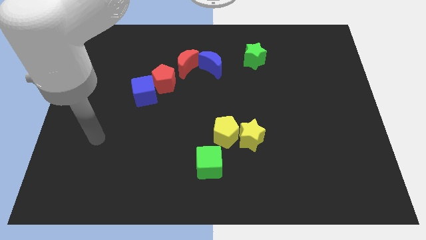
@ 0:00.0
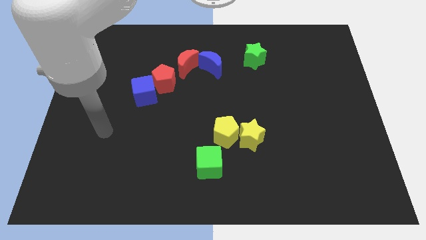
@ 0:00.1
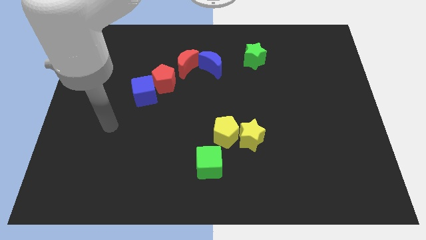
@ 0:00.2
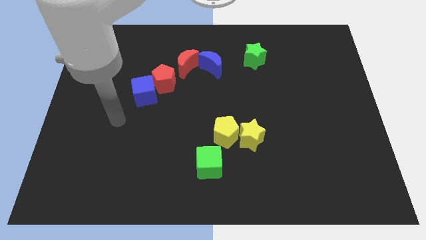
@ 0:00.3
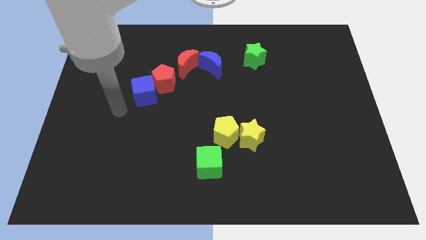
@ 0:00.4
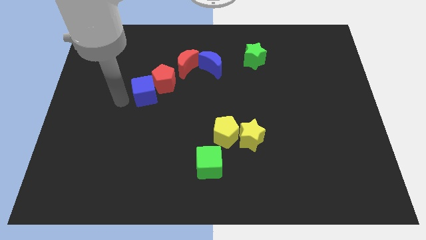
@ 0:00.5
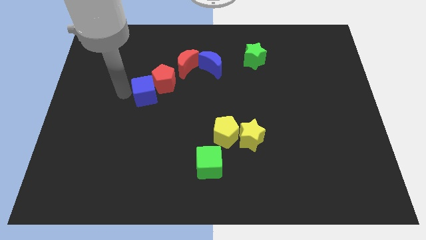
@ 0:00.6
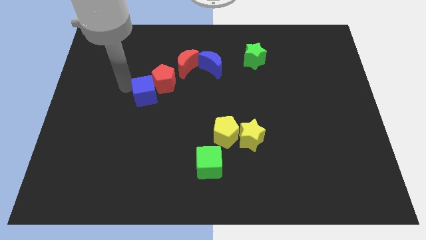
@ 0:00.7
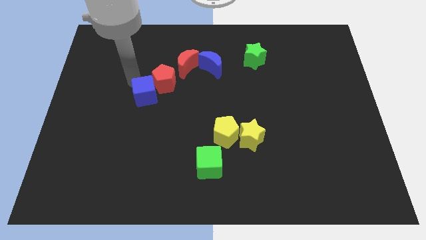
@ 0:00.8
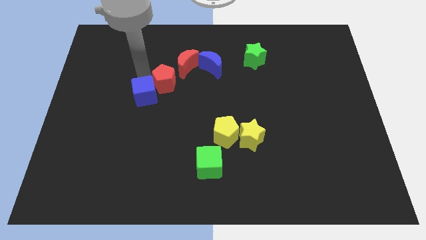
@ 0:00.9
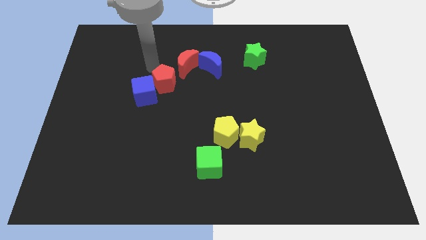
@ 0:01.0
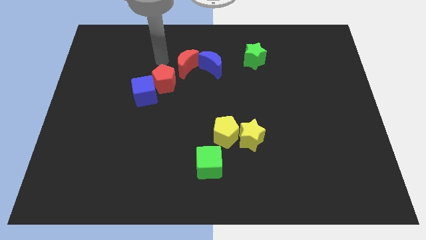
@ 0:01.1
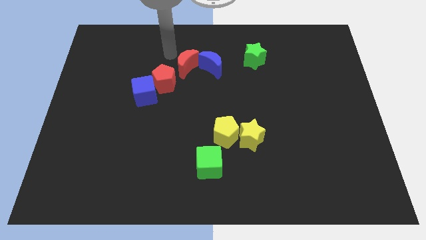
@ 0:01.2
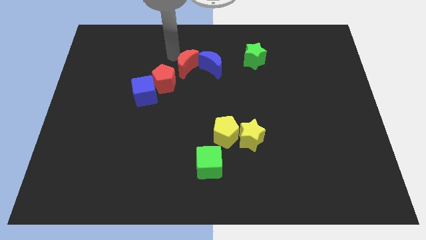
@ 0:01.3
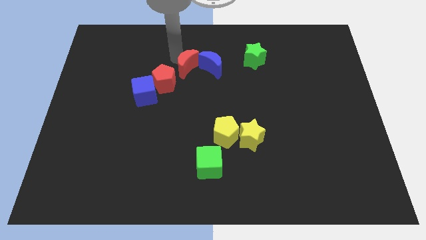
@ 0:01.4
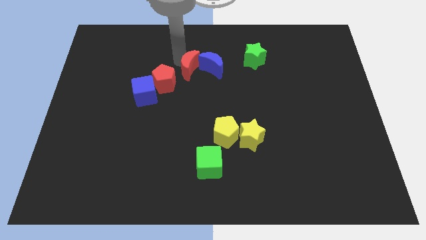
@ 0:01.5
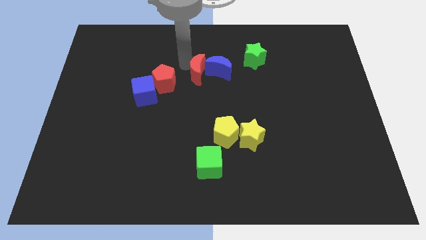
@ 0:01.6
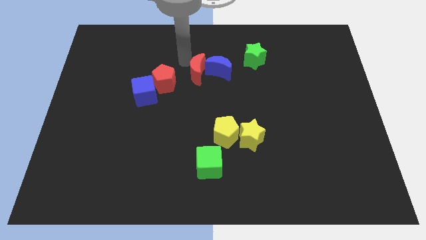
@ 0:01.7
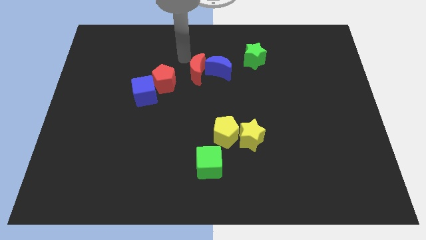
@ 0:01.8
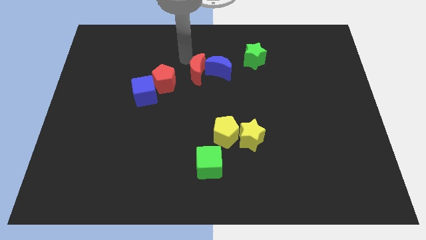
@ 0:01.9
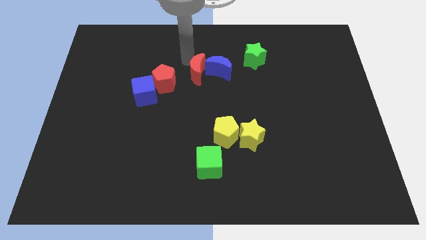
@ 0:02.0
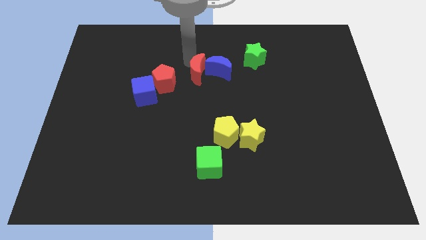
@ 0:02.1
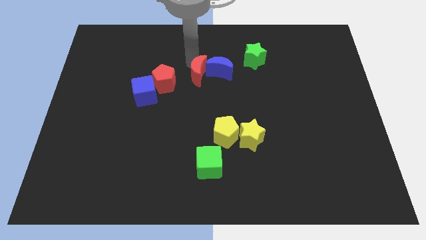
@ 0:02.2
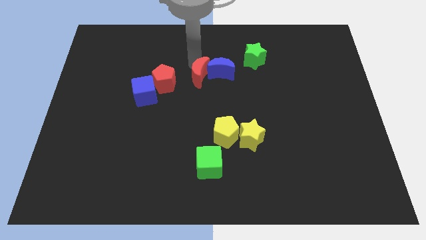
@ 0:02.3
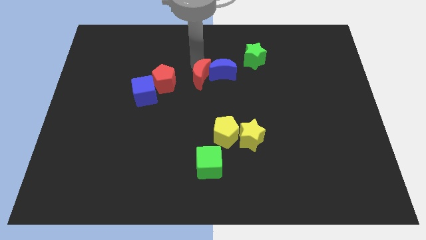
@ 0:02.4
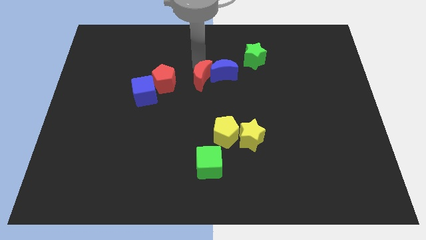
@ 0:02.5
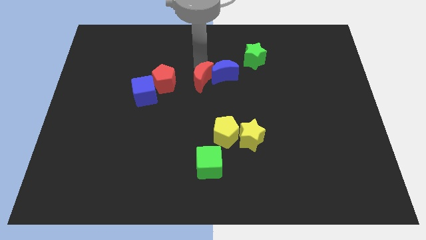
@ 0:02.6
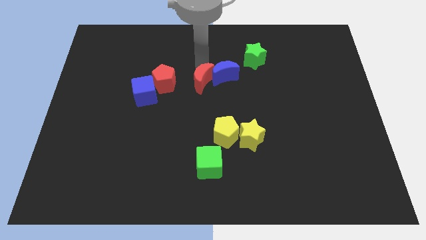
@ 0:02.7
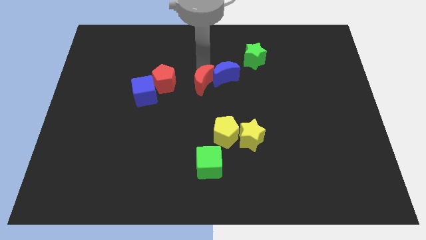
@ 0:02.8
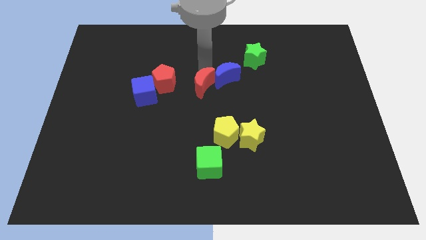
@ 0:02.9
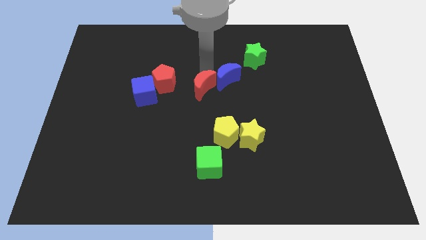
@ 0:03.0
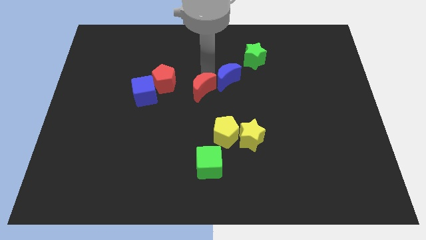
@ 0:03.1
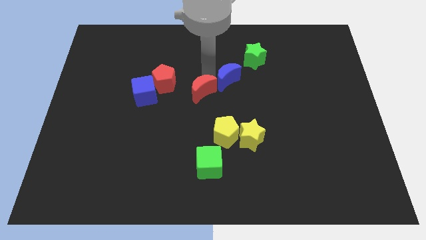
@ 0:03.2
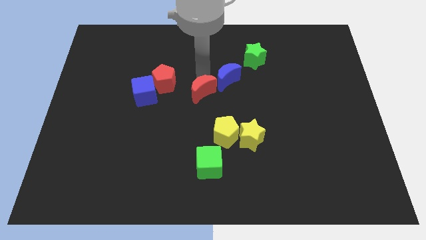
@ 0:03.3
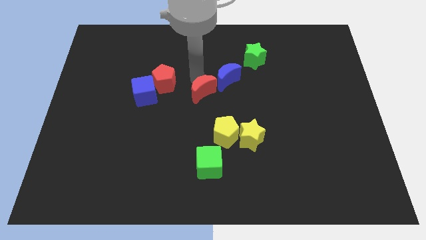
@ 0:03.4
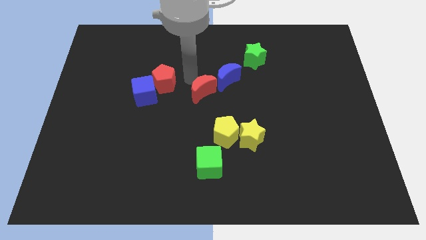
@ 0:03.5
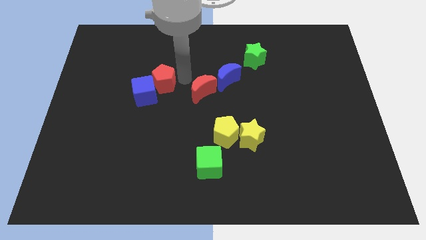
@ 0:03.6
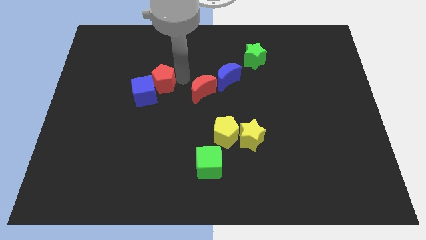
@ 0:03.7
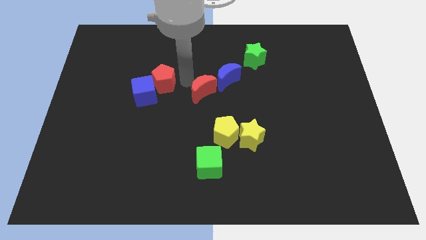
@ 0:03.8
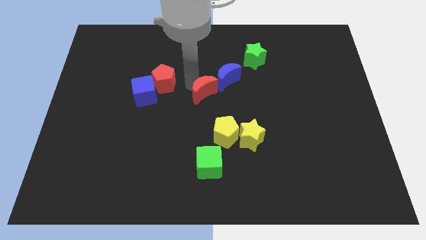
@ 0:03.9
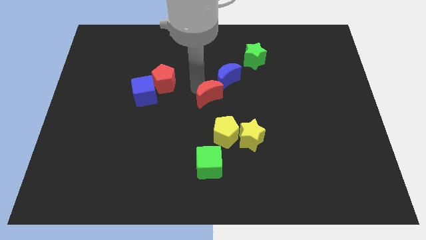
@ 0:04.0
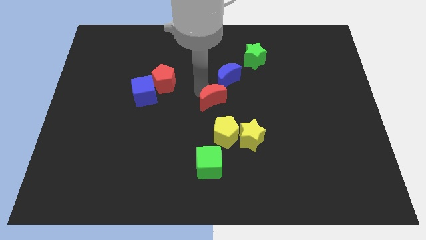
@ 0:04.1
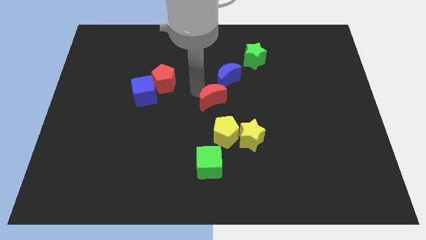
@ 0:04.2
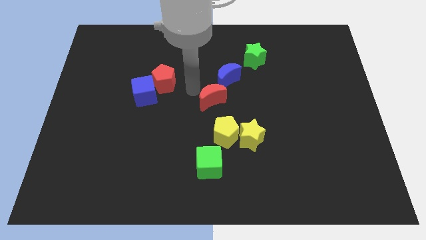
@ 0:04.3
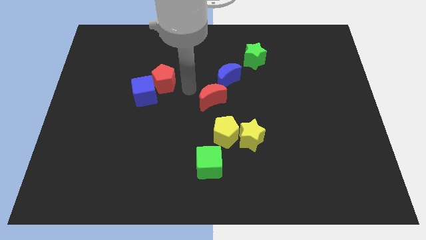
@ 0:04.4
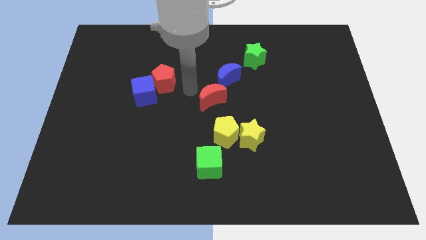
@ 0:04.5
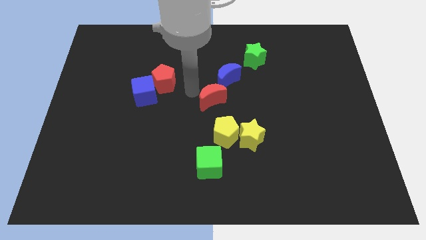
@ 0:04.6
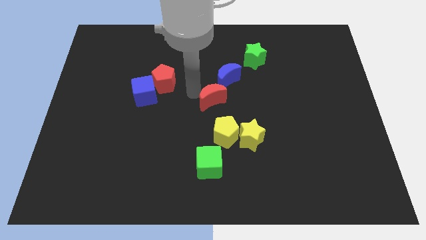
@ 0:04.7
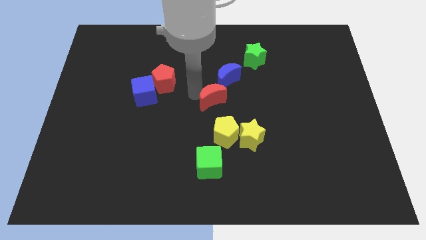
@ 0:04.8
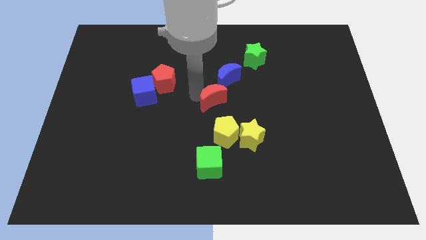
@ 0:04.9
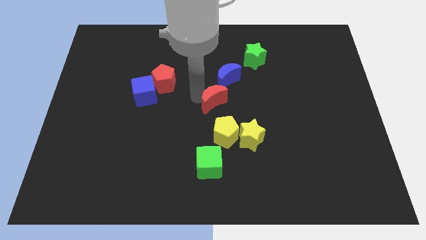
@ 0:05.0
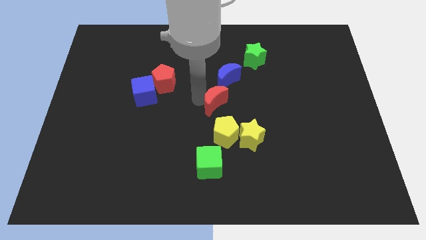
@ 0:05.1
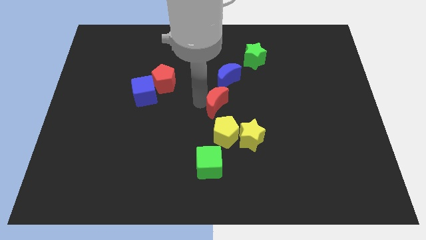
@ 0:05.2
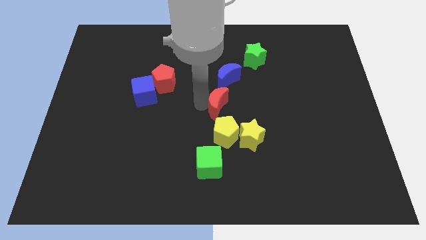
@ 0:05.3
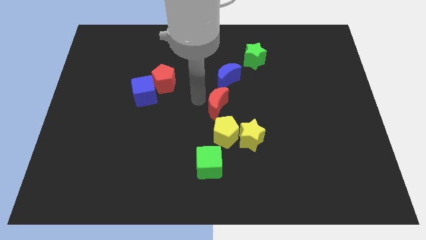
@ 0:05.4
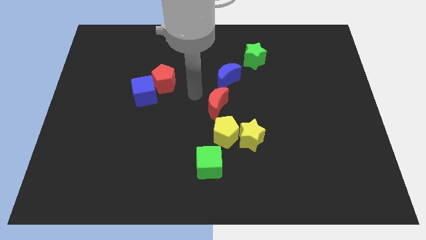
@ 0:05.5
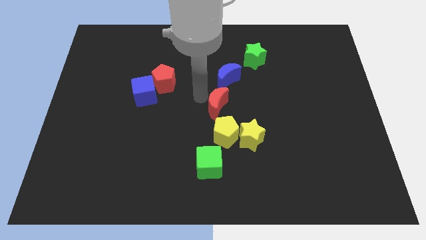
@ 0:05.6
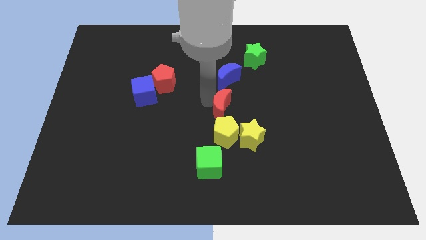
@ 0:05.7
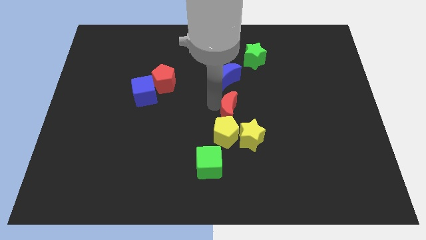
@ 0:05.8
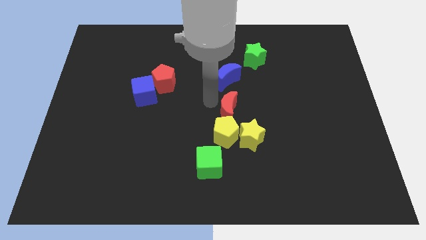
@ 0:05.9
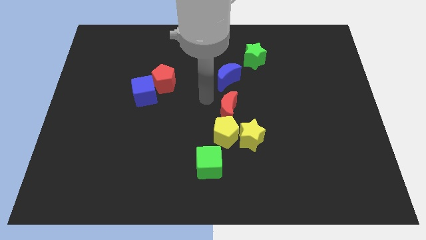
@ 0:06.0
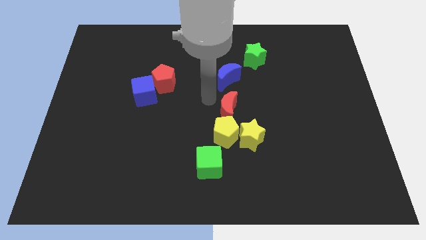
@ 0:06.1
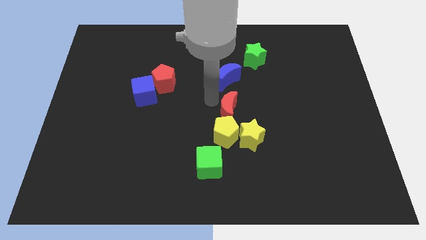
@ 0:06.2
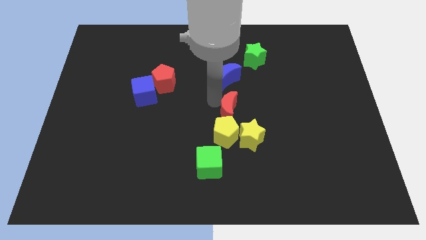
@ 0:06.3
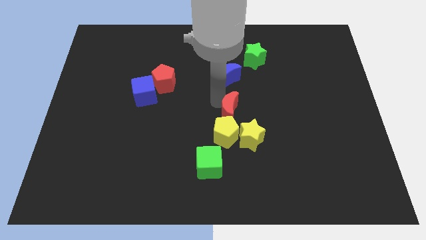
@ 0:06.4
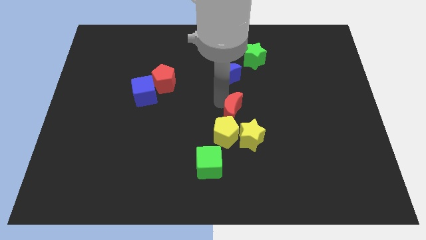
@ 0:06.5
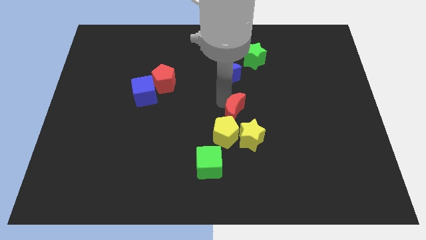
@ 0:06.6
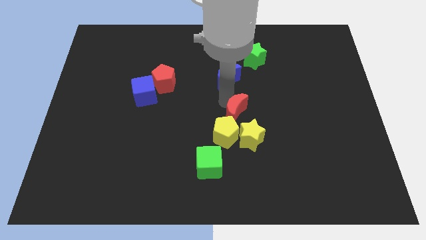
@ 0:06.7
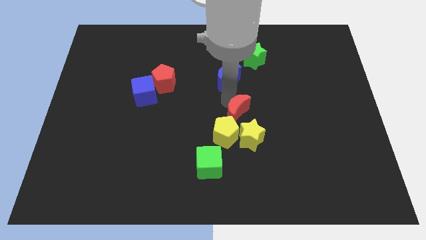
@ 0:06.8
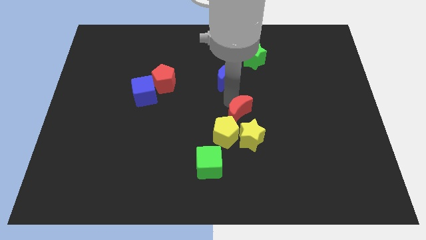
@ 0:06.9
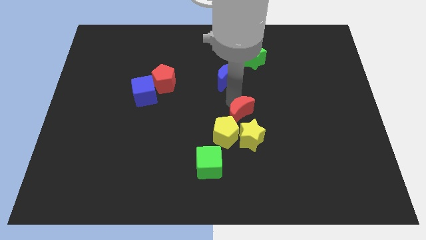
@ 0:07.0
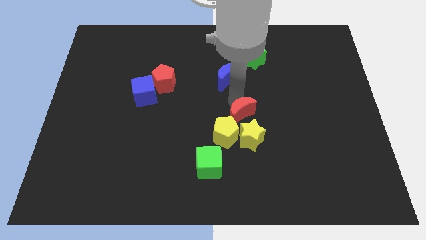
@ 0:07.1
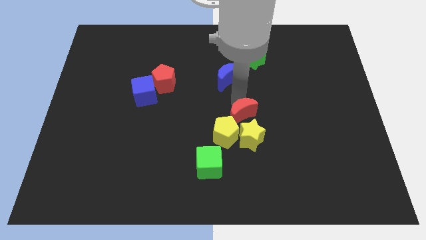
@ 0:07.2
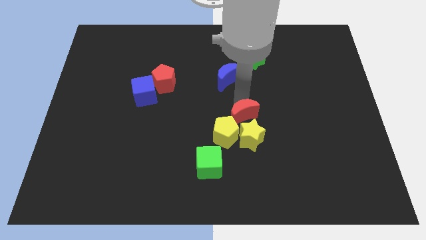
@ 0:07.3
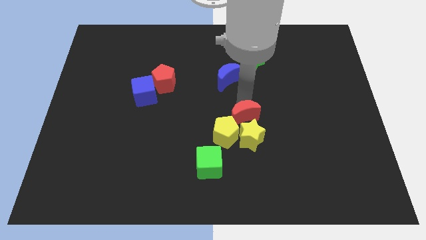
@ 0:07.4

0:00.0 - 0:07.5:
move the red moon close to the yellow star

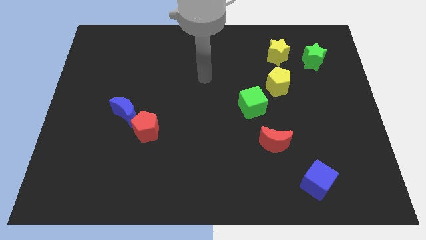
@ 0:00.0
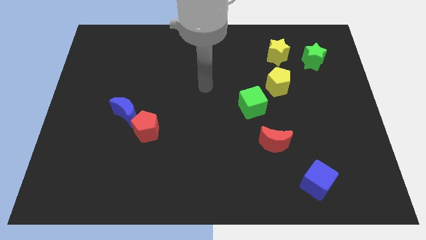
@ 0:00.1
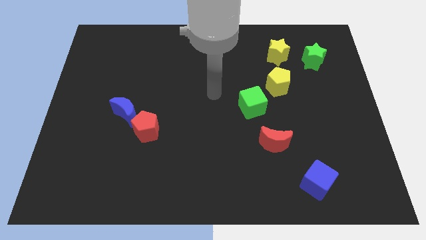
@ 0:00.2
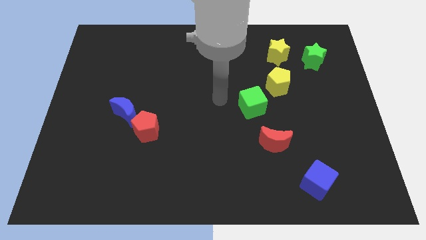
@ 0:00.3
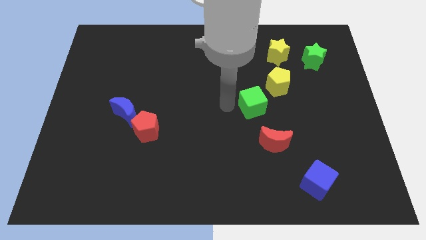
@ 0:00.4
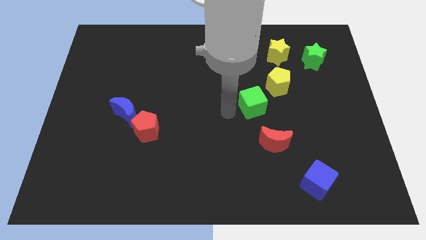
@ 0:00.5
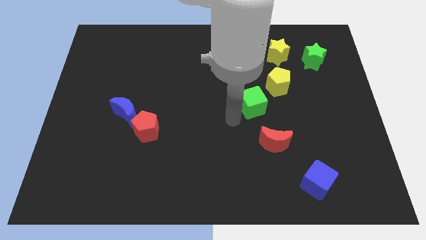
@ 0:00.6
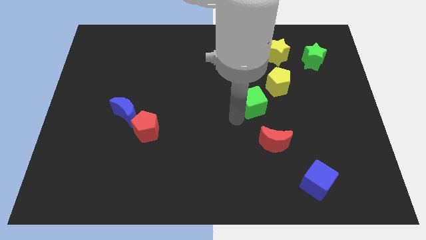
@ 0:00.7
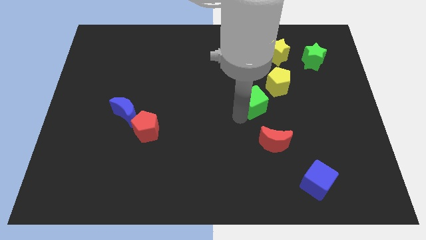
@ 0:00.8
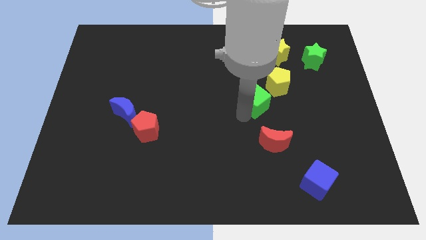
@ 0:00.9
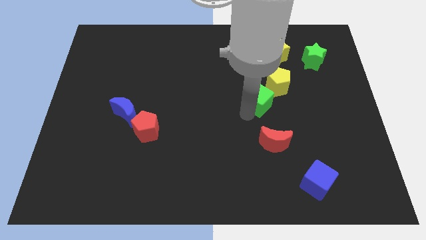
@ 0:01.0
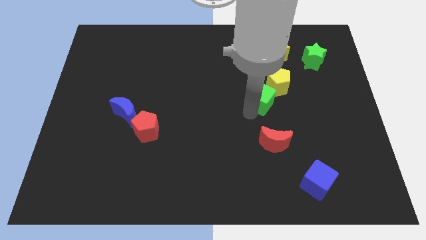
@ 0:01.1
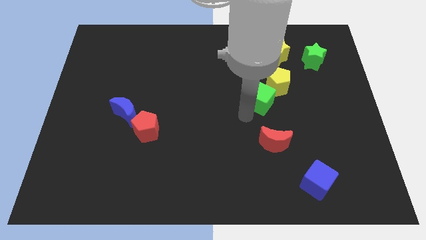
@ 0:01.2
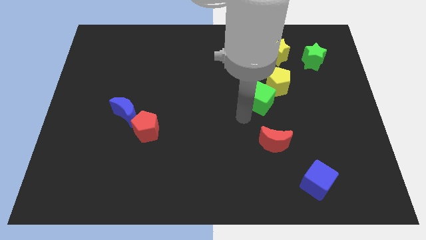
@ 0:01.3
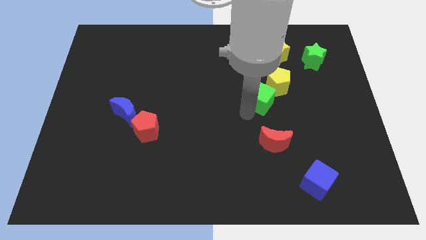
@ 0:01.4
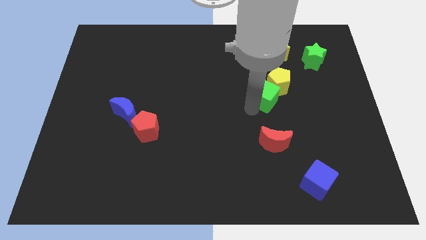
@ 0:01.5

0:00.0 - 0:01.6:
move the green cube next to the yellow pentagon
